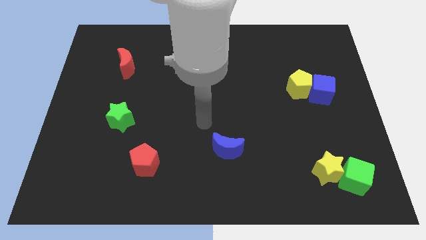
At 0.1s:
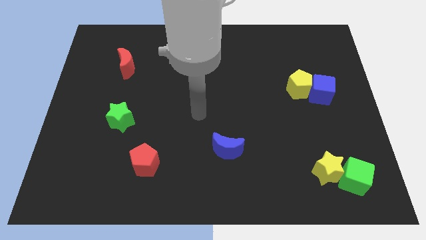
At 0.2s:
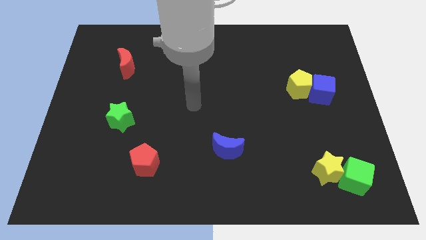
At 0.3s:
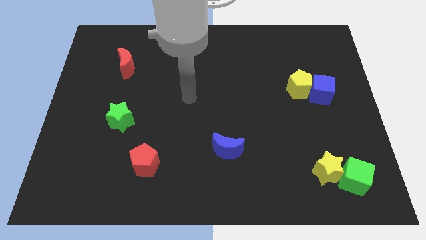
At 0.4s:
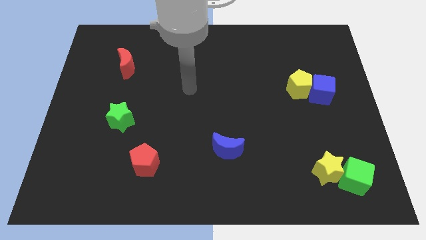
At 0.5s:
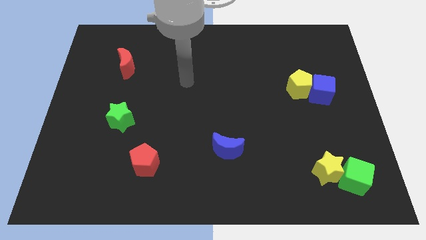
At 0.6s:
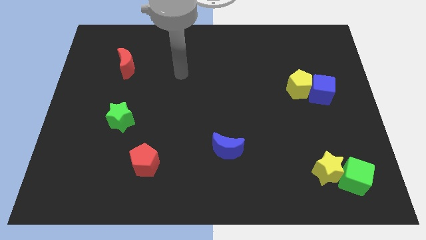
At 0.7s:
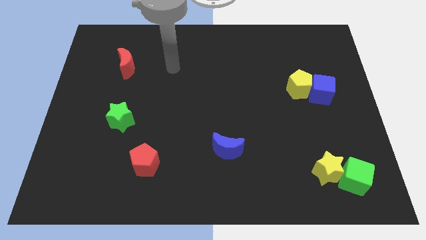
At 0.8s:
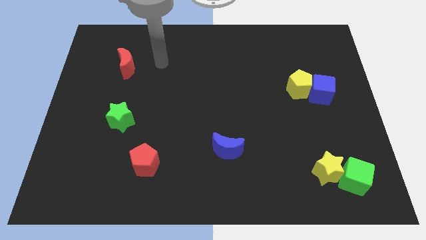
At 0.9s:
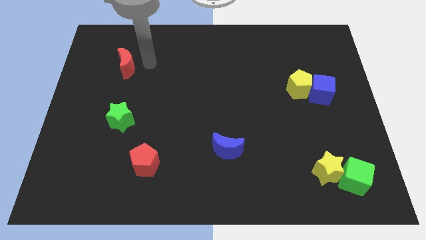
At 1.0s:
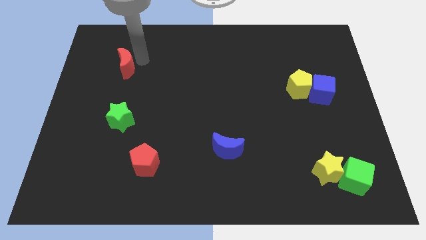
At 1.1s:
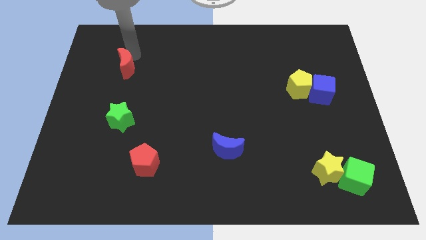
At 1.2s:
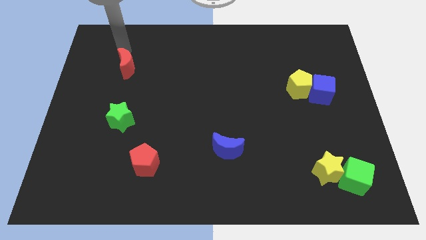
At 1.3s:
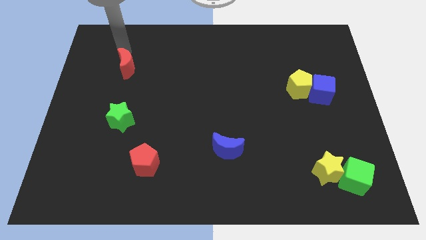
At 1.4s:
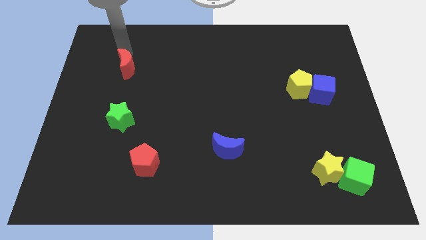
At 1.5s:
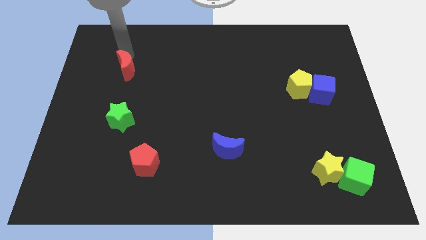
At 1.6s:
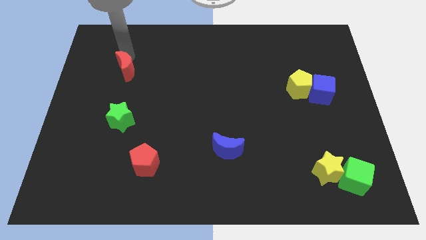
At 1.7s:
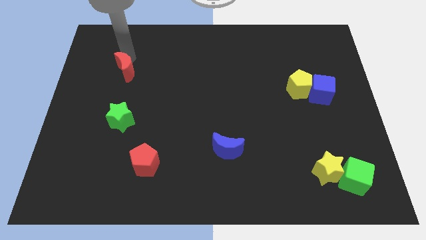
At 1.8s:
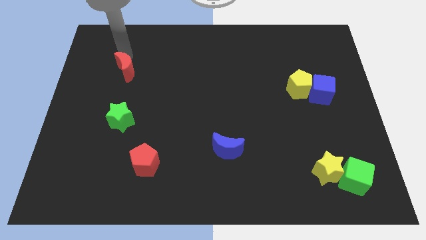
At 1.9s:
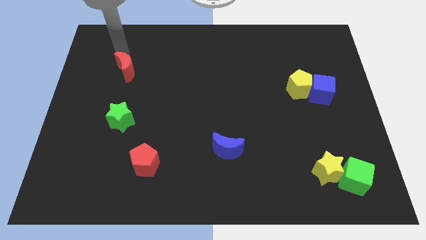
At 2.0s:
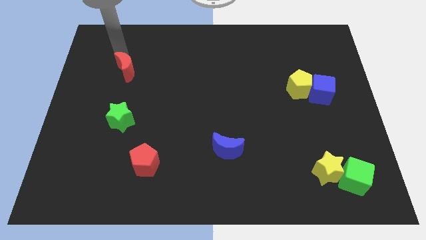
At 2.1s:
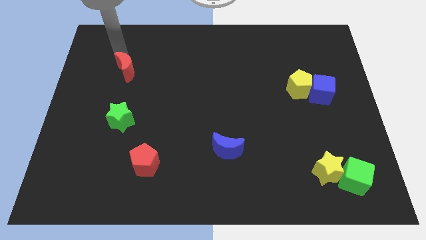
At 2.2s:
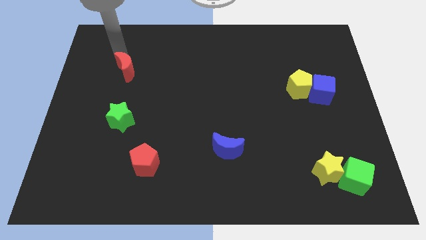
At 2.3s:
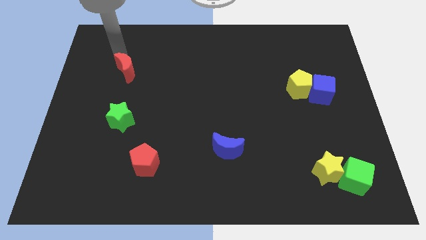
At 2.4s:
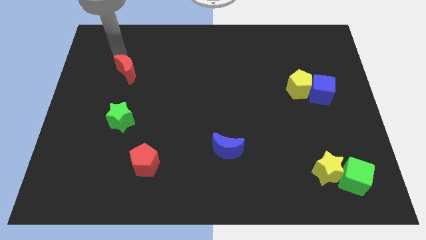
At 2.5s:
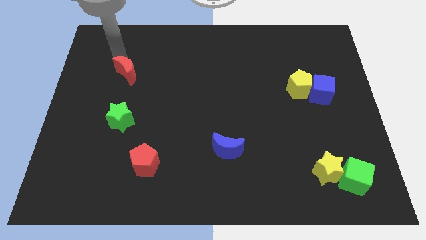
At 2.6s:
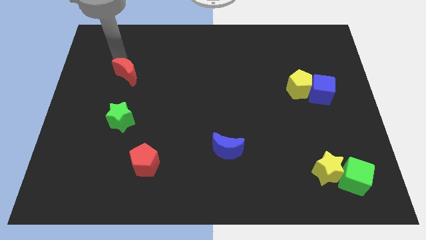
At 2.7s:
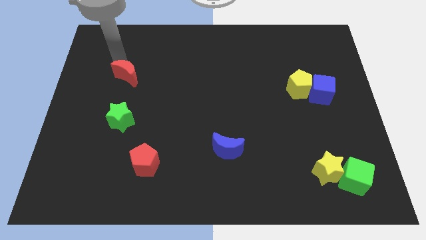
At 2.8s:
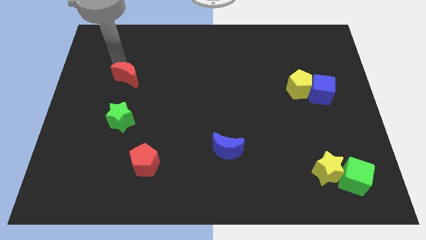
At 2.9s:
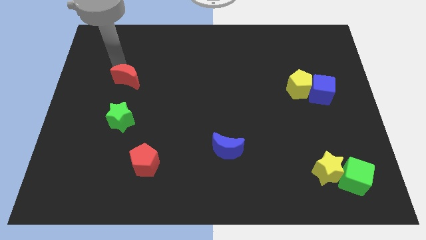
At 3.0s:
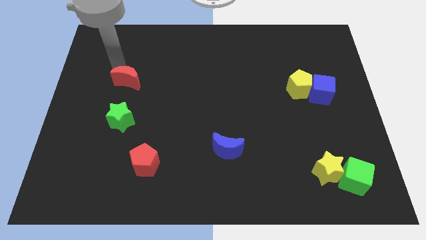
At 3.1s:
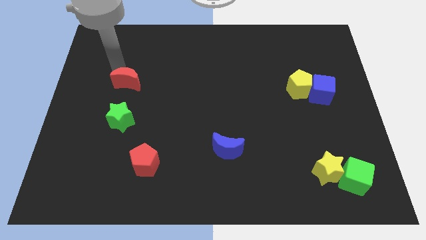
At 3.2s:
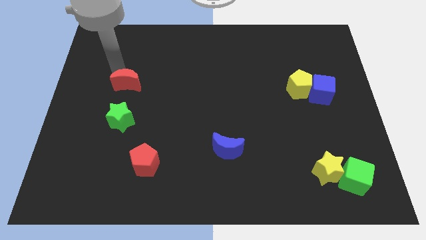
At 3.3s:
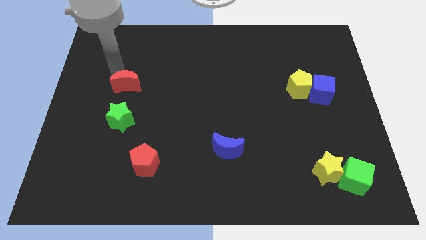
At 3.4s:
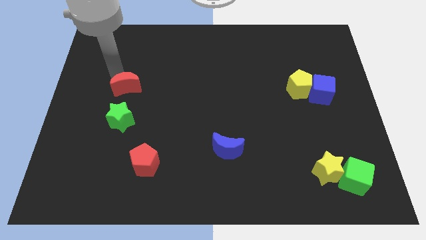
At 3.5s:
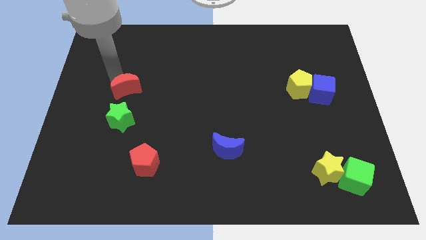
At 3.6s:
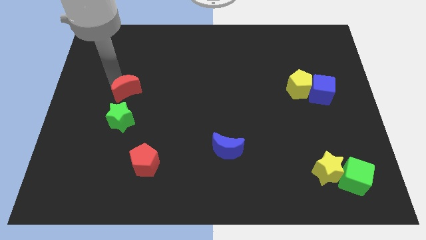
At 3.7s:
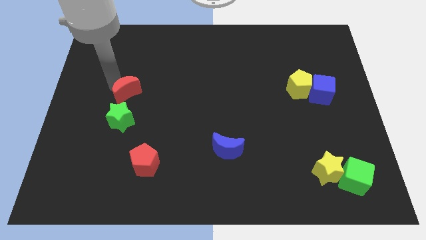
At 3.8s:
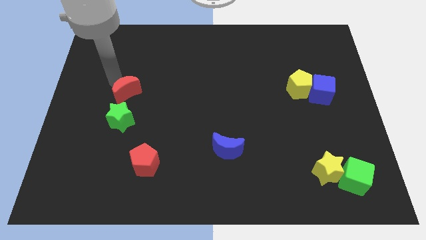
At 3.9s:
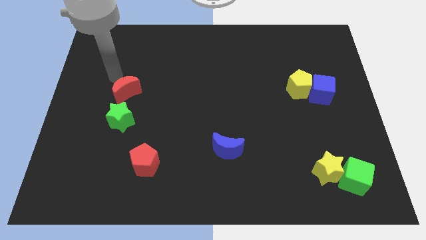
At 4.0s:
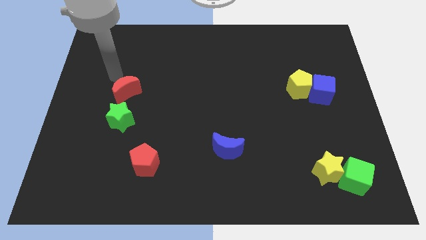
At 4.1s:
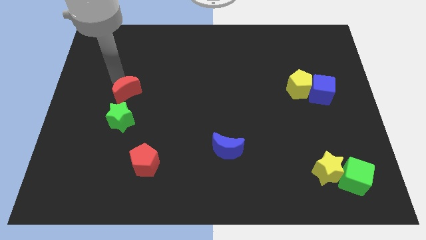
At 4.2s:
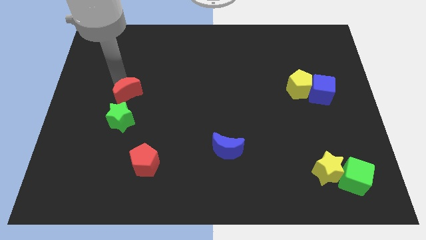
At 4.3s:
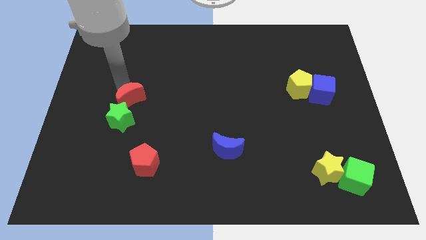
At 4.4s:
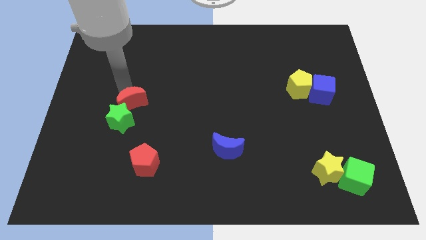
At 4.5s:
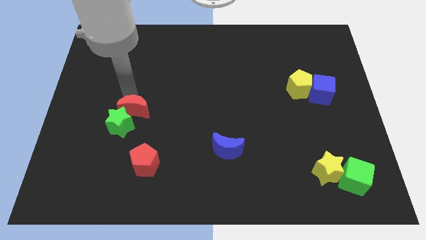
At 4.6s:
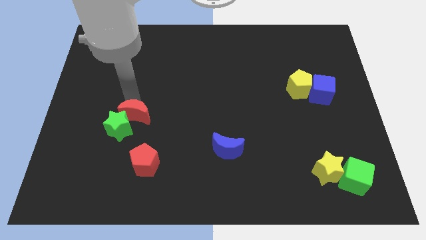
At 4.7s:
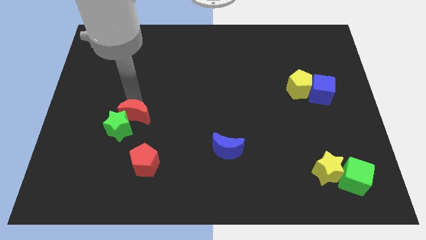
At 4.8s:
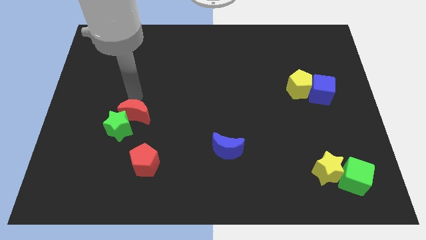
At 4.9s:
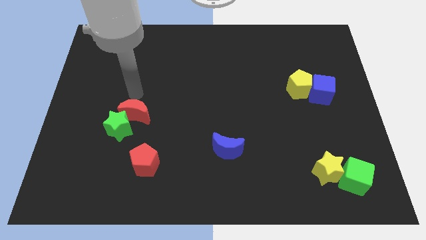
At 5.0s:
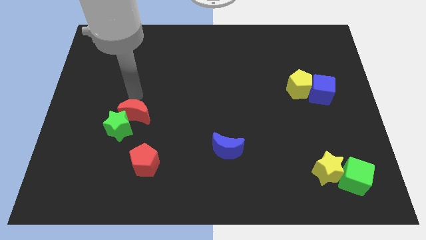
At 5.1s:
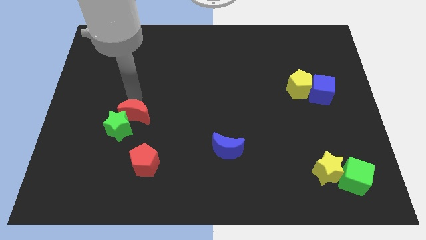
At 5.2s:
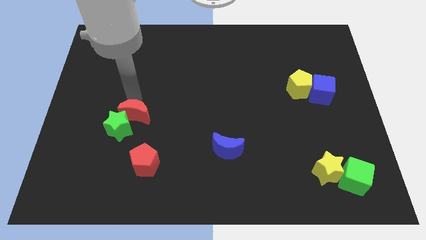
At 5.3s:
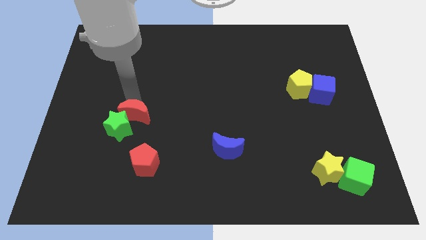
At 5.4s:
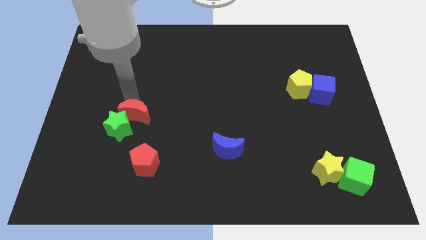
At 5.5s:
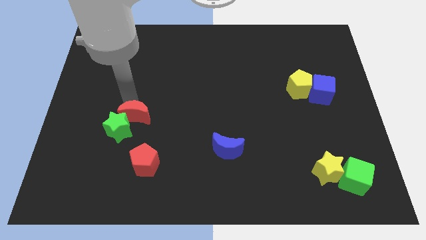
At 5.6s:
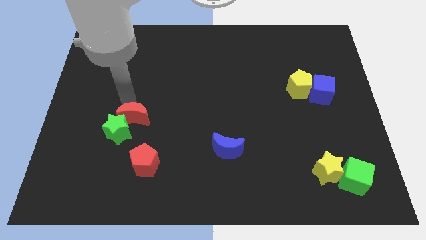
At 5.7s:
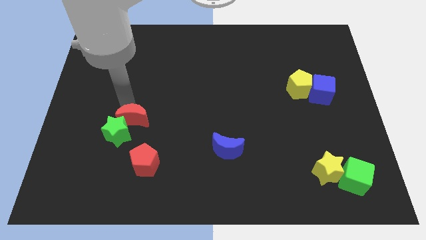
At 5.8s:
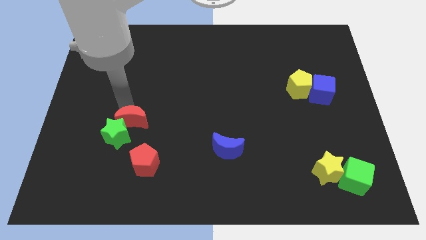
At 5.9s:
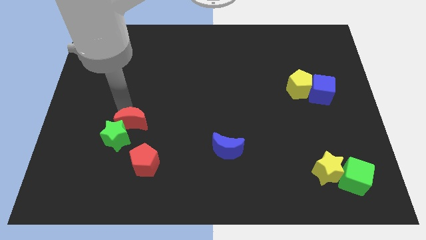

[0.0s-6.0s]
put the red moon to the top left side of the red pentagon
